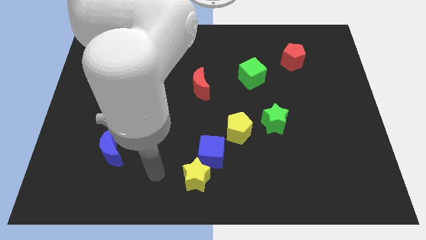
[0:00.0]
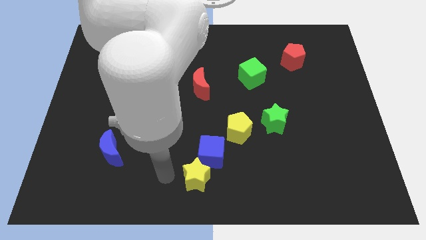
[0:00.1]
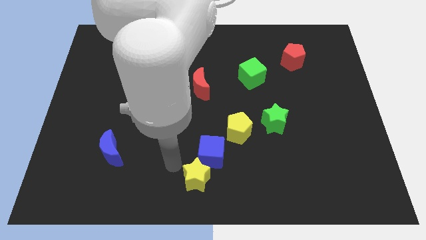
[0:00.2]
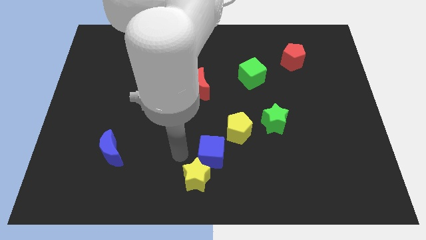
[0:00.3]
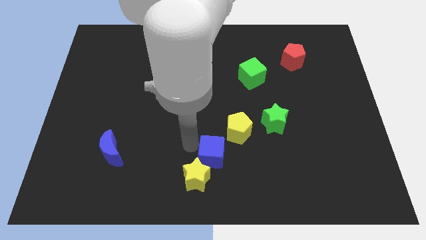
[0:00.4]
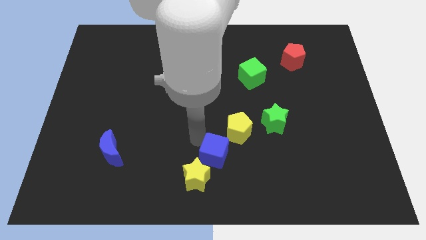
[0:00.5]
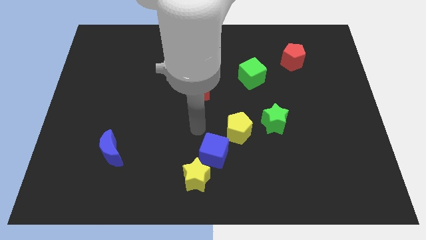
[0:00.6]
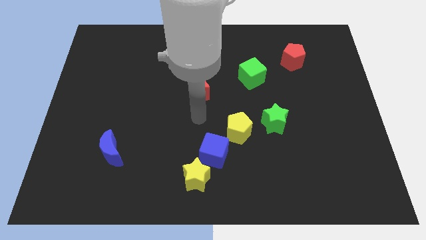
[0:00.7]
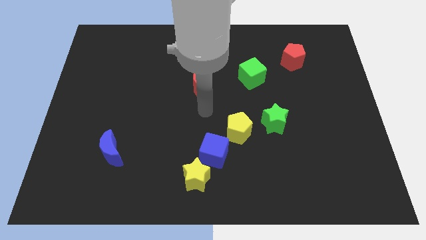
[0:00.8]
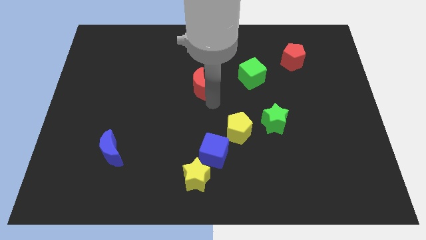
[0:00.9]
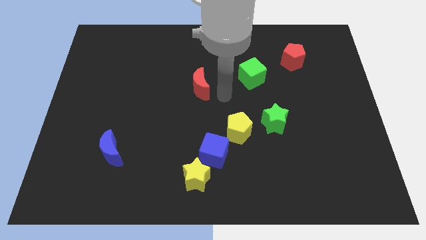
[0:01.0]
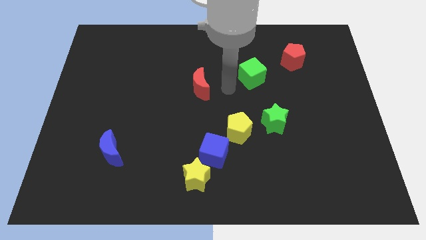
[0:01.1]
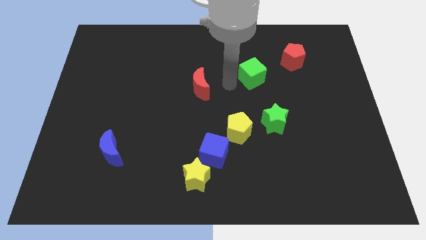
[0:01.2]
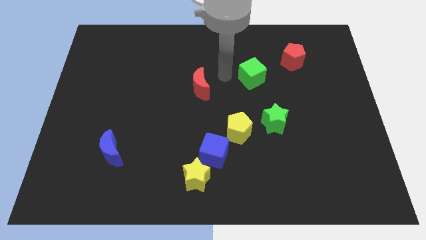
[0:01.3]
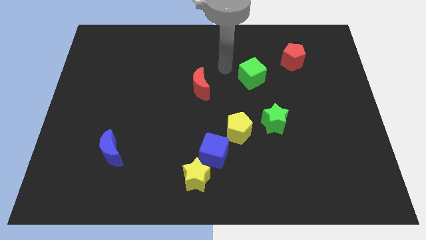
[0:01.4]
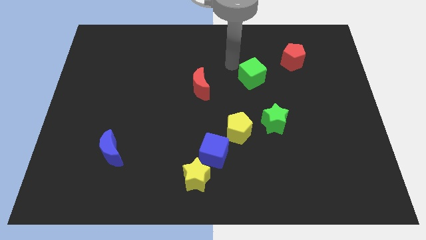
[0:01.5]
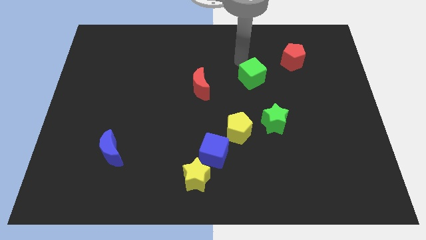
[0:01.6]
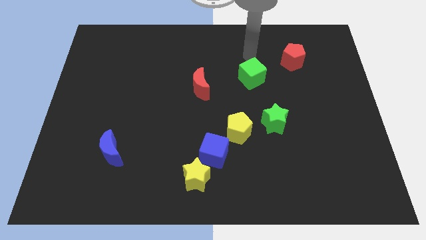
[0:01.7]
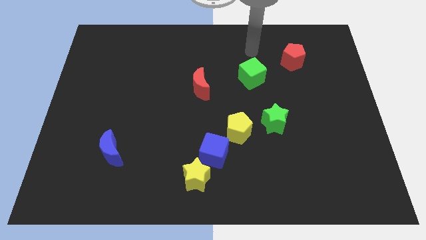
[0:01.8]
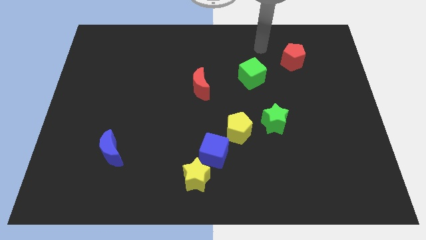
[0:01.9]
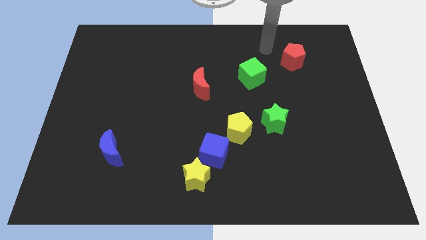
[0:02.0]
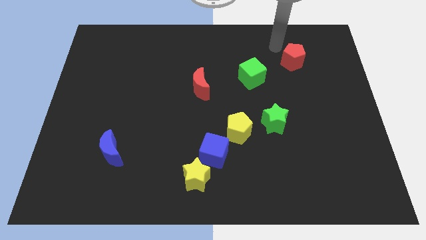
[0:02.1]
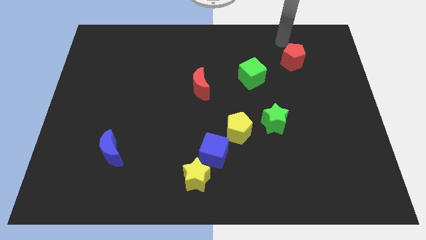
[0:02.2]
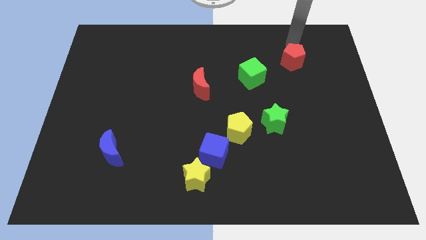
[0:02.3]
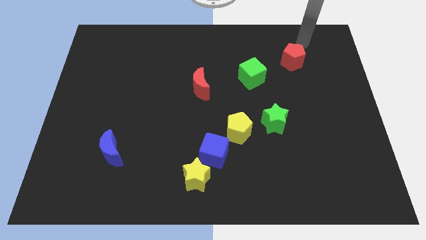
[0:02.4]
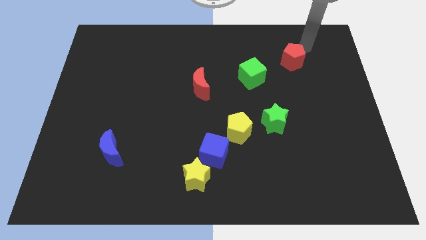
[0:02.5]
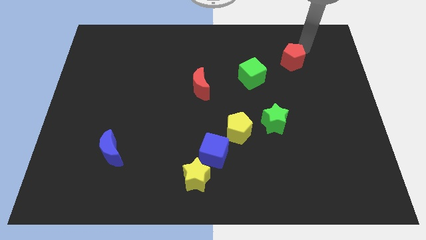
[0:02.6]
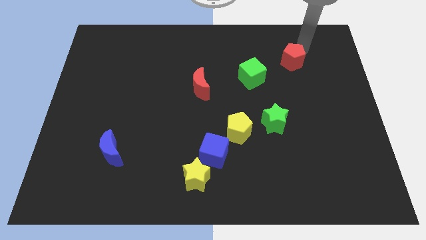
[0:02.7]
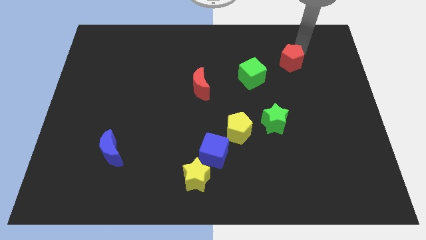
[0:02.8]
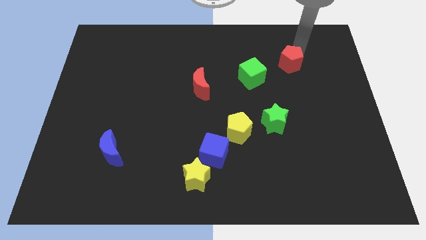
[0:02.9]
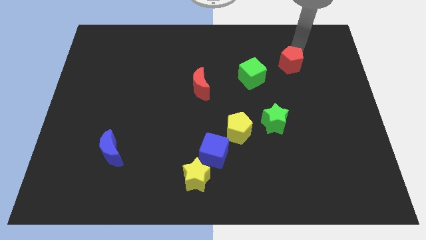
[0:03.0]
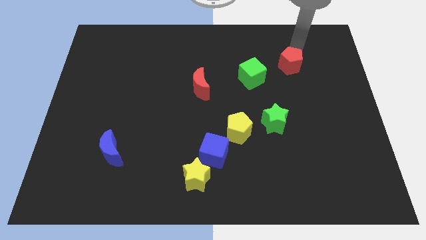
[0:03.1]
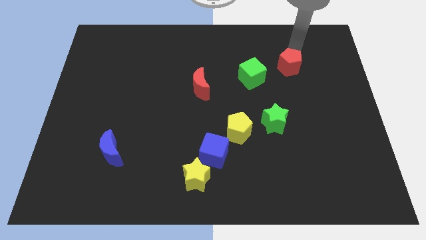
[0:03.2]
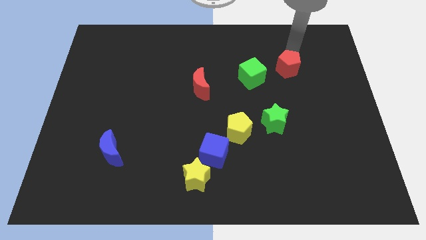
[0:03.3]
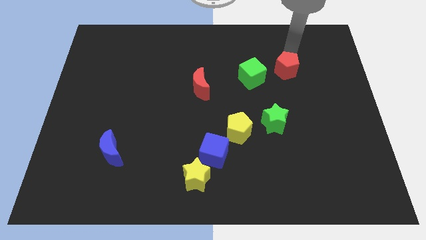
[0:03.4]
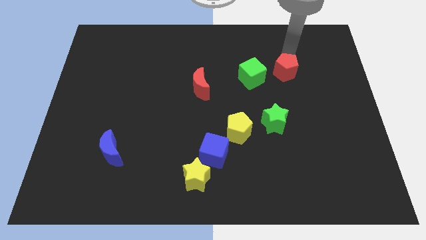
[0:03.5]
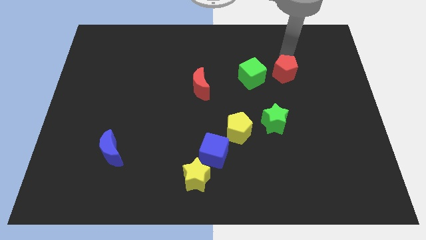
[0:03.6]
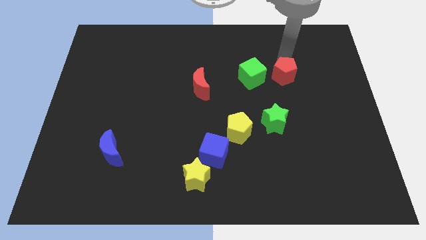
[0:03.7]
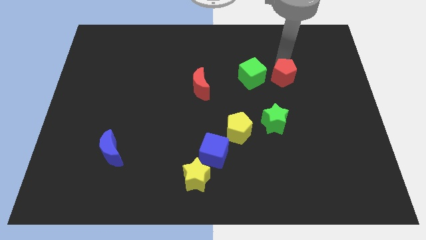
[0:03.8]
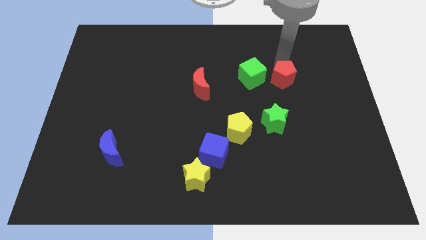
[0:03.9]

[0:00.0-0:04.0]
slightly slide the red pentagon down and to the left diagonally

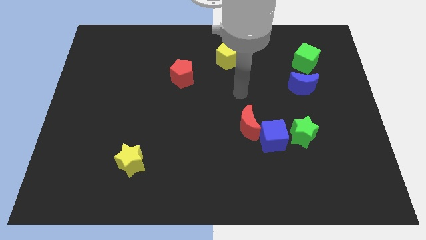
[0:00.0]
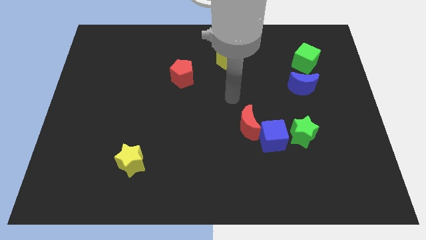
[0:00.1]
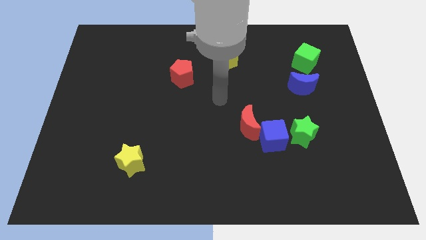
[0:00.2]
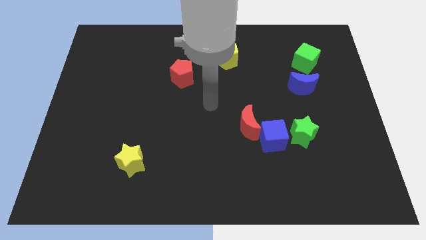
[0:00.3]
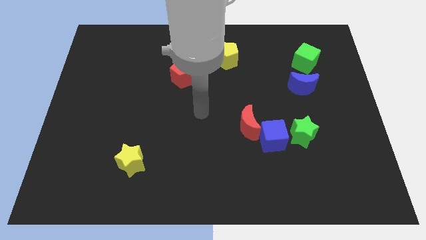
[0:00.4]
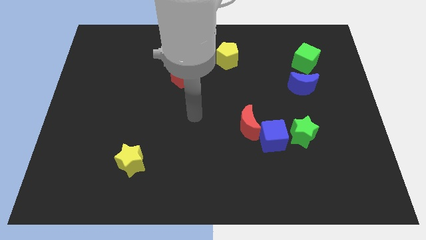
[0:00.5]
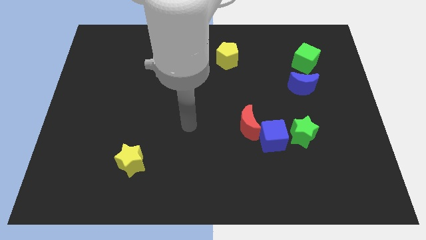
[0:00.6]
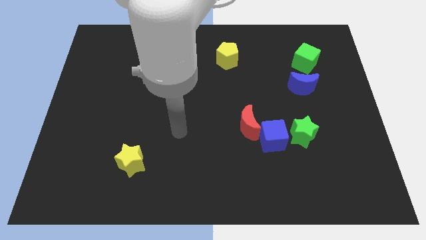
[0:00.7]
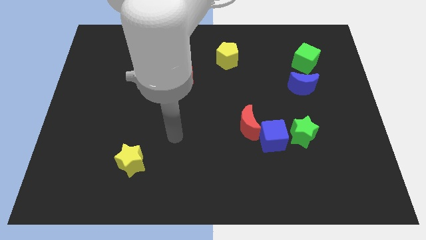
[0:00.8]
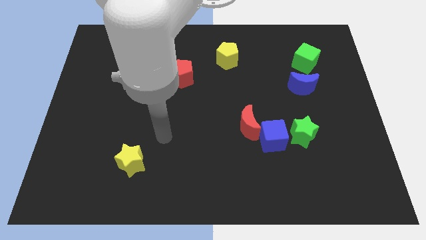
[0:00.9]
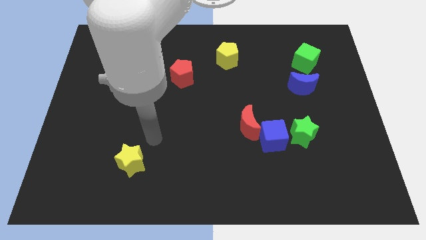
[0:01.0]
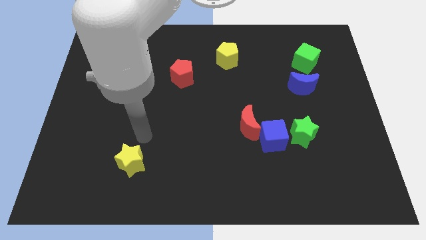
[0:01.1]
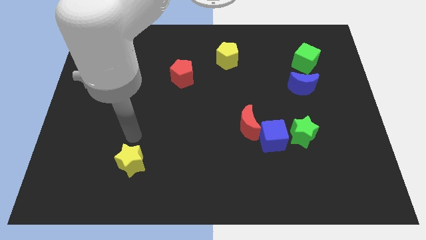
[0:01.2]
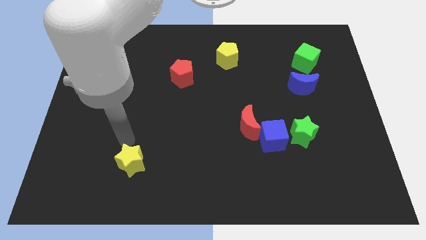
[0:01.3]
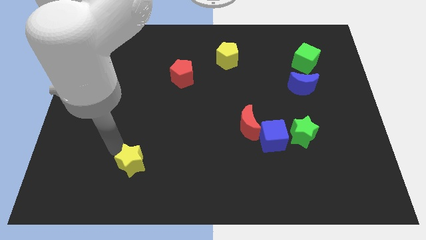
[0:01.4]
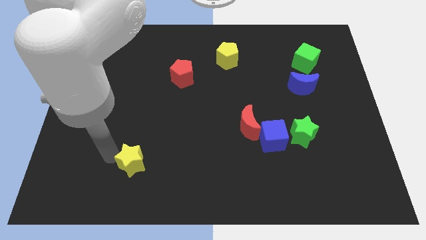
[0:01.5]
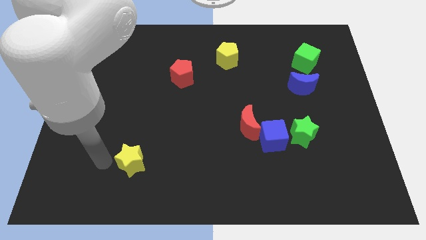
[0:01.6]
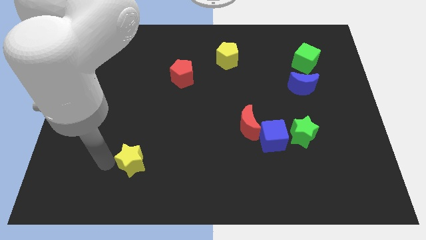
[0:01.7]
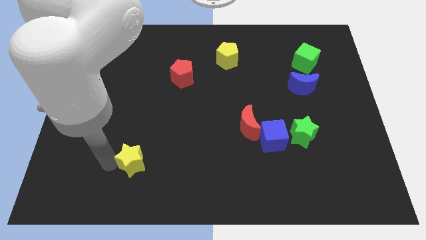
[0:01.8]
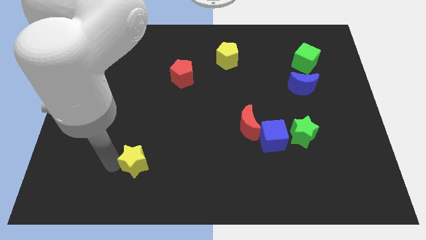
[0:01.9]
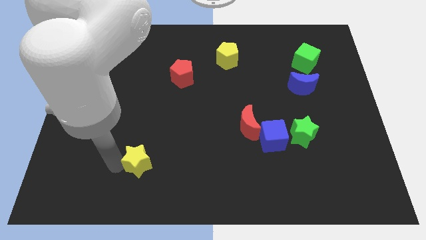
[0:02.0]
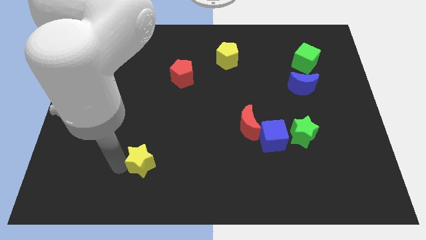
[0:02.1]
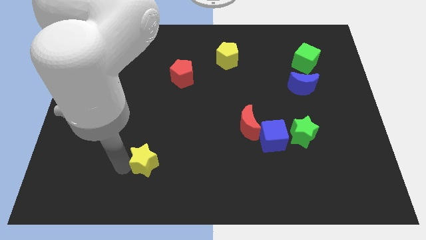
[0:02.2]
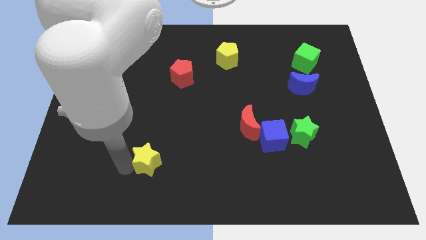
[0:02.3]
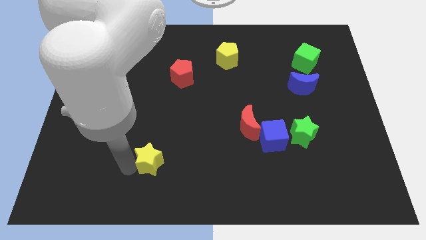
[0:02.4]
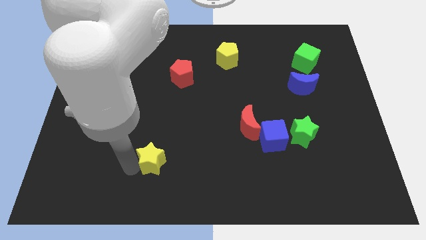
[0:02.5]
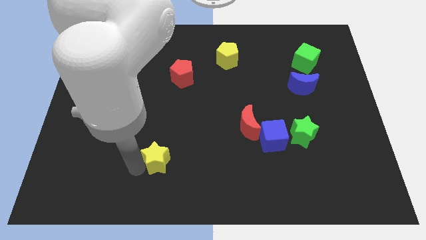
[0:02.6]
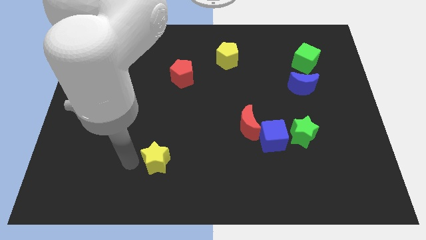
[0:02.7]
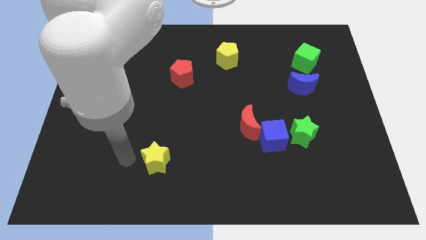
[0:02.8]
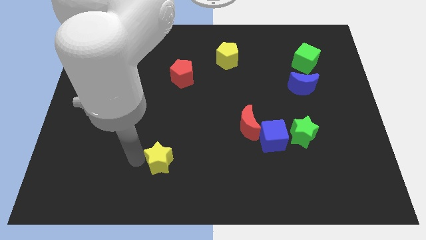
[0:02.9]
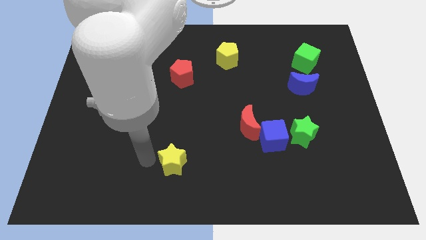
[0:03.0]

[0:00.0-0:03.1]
slightly slide the yellow star right

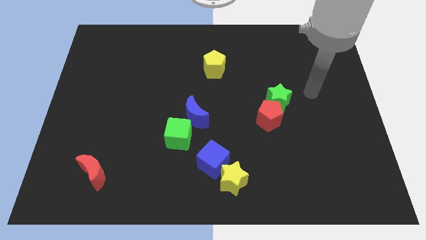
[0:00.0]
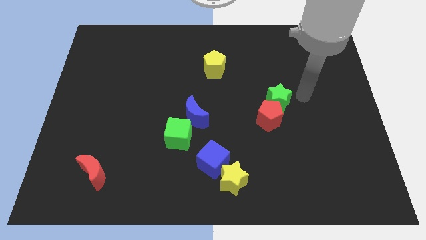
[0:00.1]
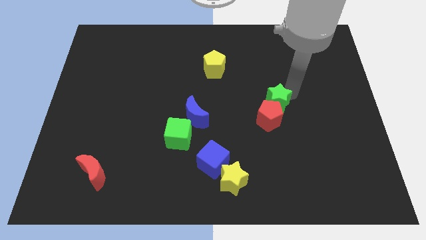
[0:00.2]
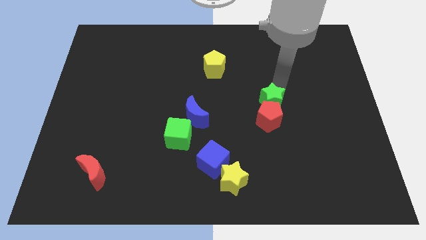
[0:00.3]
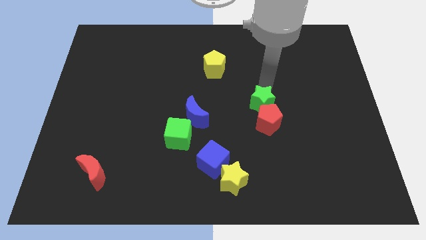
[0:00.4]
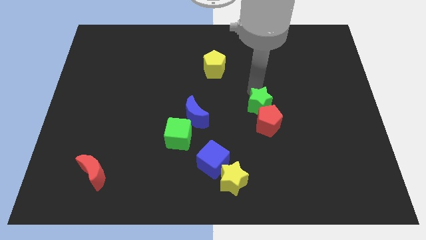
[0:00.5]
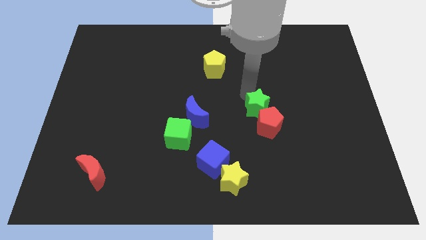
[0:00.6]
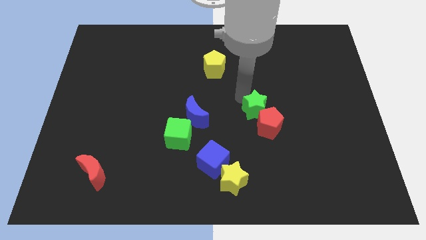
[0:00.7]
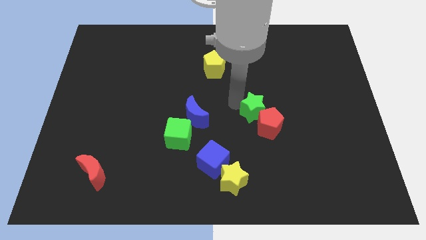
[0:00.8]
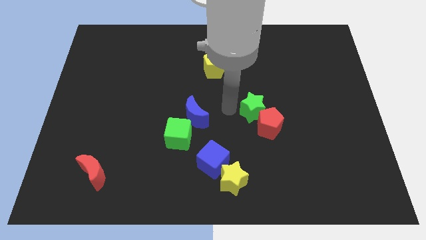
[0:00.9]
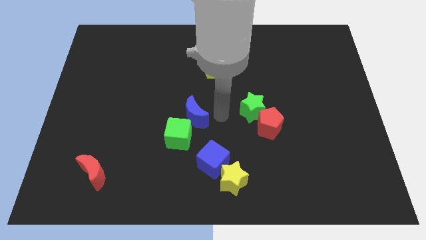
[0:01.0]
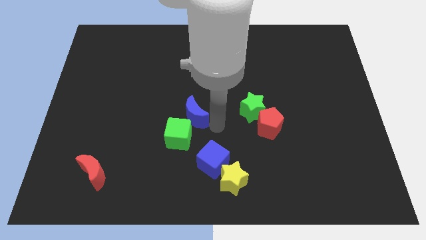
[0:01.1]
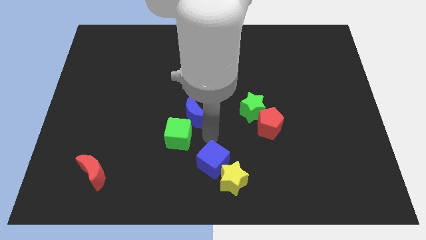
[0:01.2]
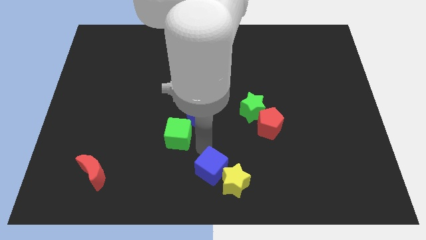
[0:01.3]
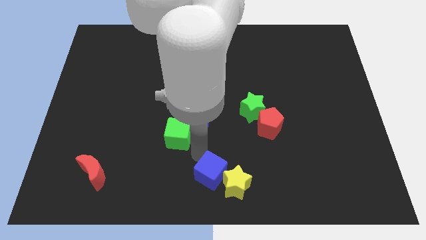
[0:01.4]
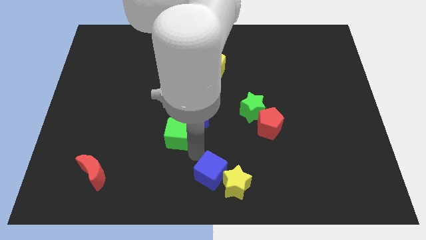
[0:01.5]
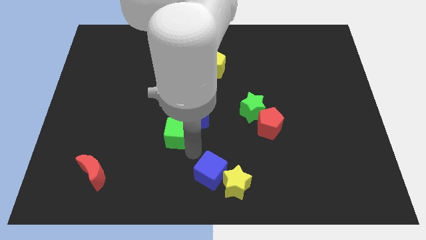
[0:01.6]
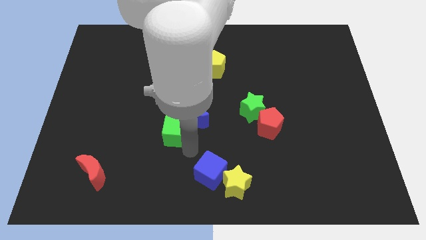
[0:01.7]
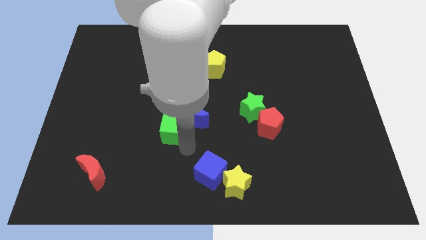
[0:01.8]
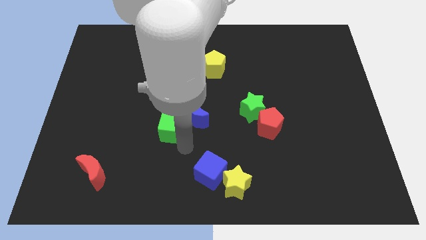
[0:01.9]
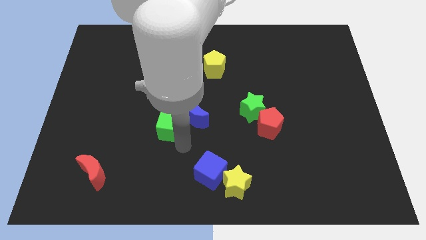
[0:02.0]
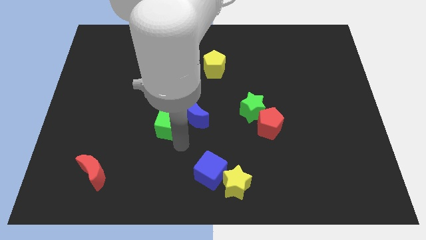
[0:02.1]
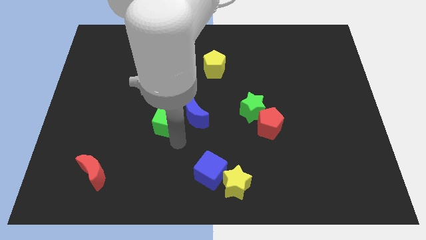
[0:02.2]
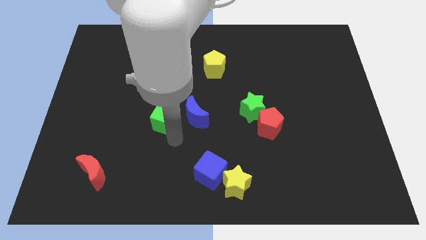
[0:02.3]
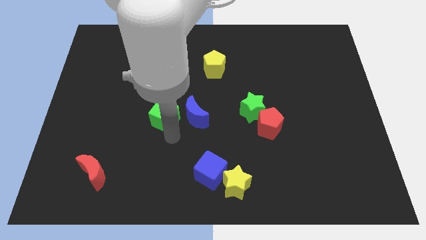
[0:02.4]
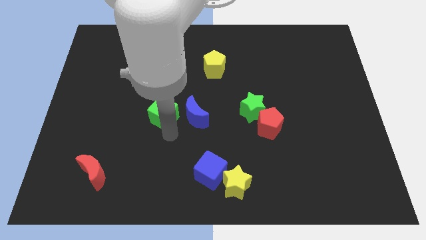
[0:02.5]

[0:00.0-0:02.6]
slightly move the green cube upwards and left diagonally
